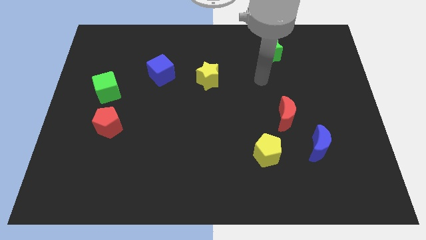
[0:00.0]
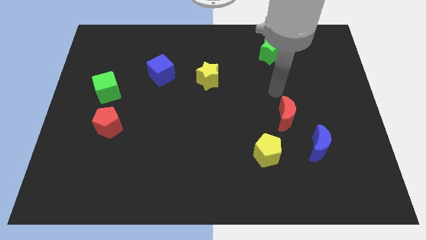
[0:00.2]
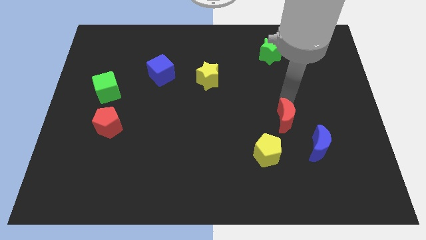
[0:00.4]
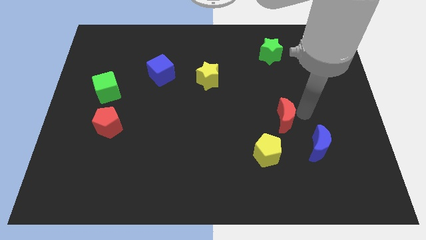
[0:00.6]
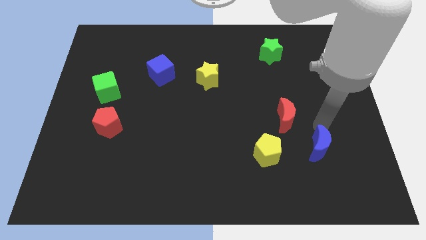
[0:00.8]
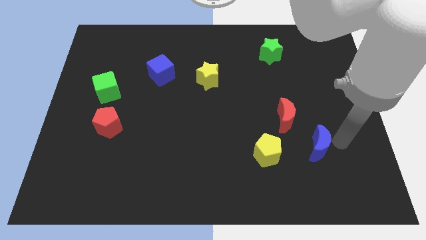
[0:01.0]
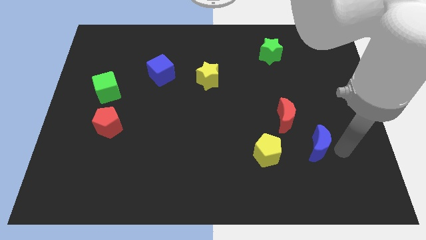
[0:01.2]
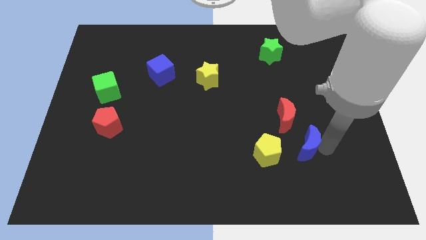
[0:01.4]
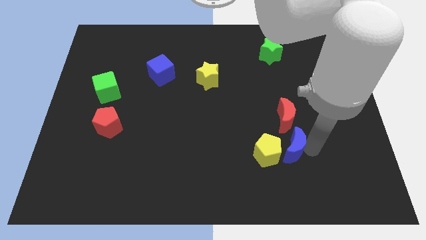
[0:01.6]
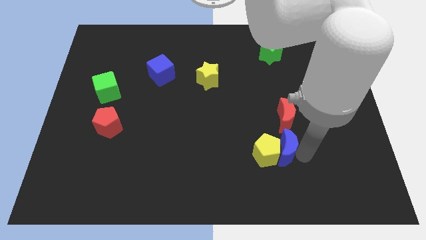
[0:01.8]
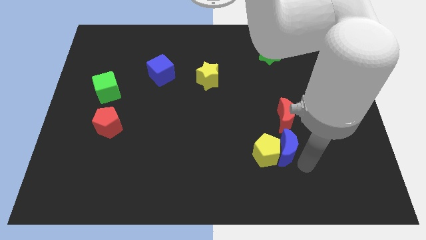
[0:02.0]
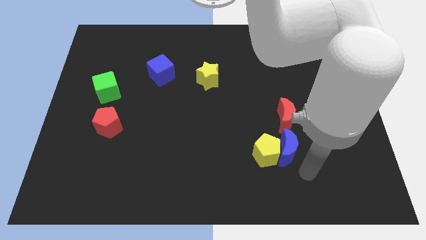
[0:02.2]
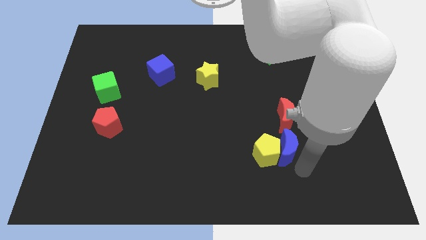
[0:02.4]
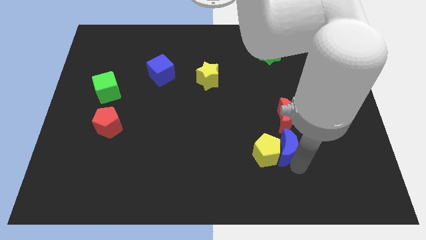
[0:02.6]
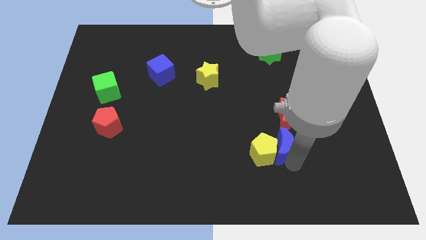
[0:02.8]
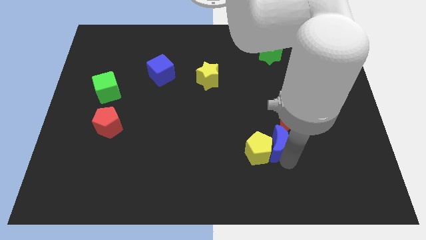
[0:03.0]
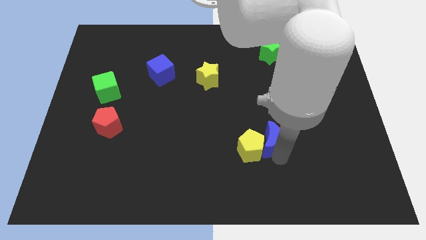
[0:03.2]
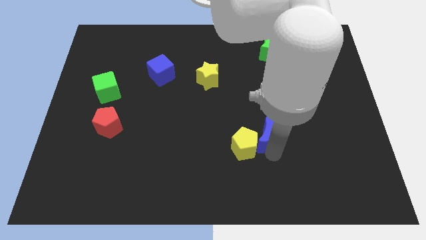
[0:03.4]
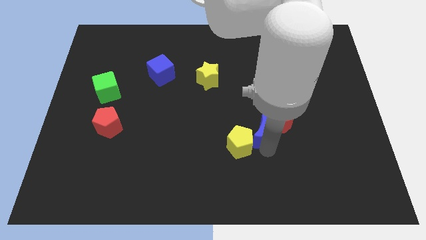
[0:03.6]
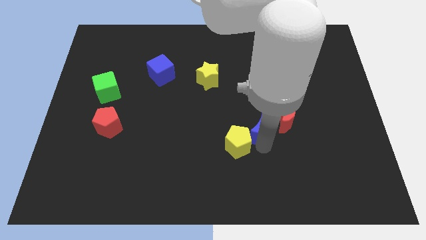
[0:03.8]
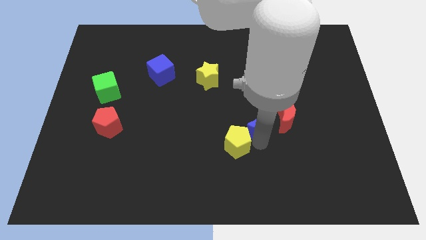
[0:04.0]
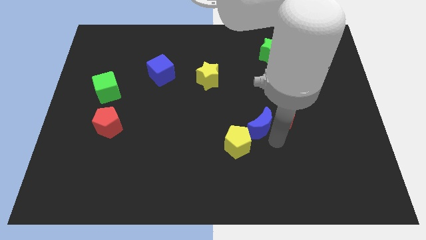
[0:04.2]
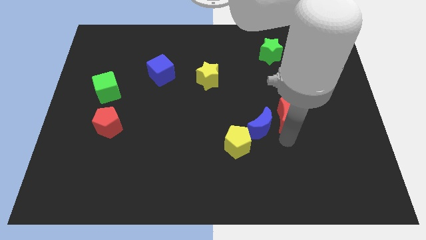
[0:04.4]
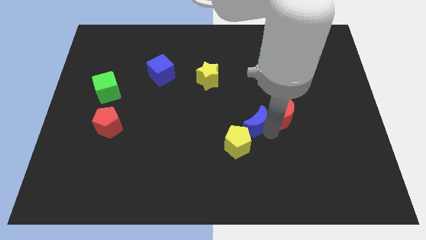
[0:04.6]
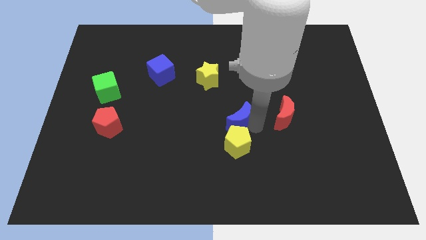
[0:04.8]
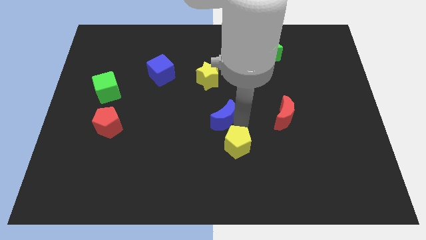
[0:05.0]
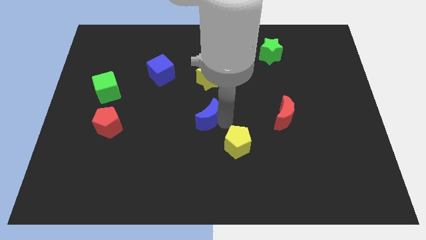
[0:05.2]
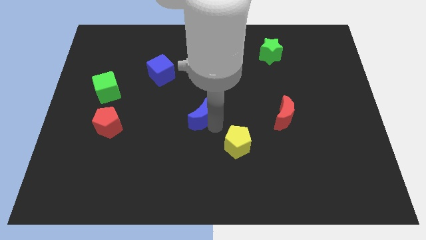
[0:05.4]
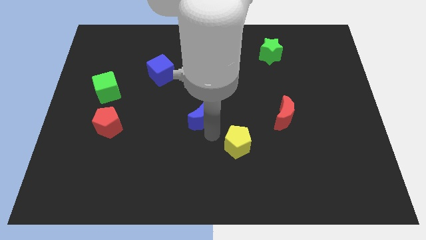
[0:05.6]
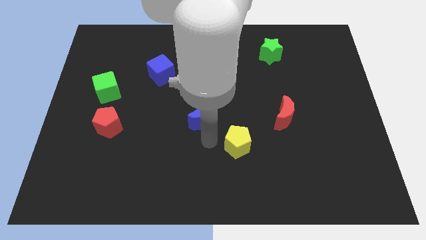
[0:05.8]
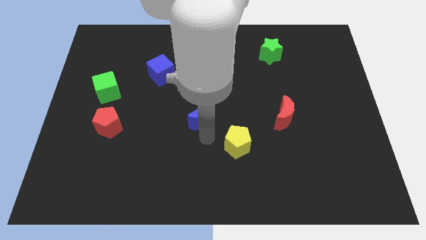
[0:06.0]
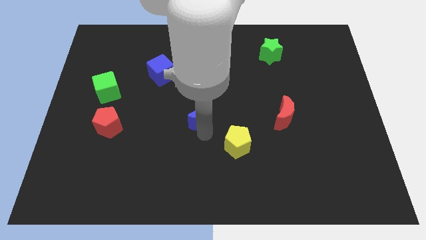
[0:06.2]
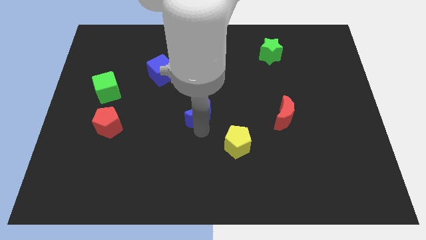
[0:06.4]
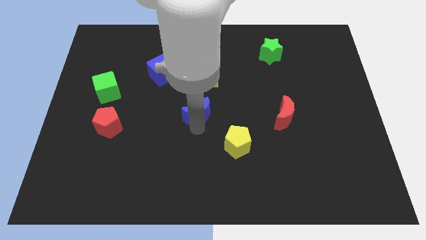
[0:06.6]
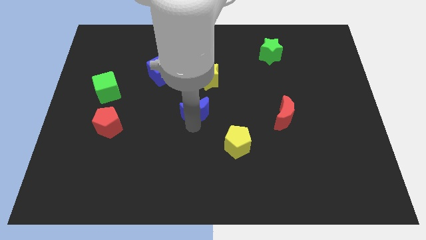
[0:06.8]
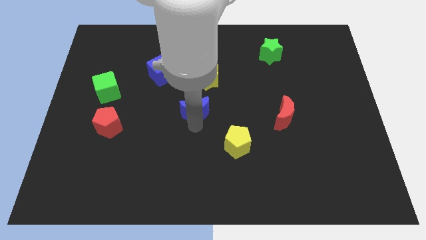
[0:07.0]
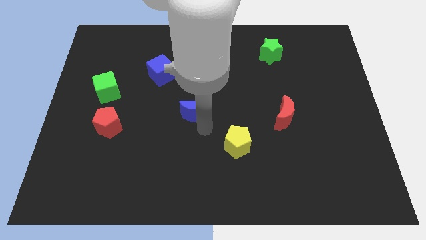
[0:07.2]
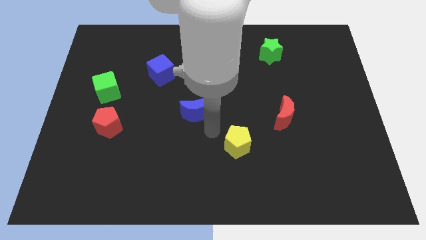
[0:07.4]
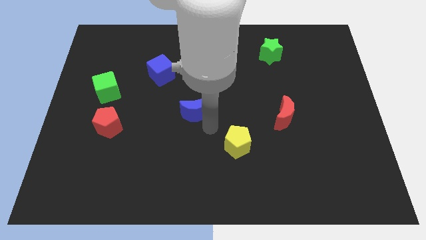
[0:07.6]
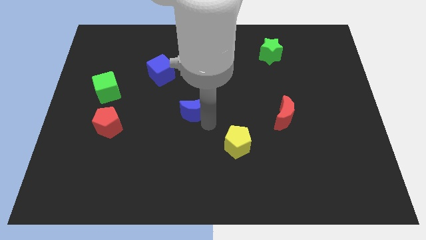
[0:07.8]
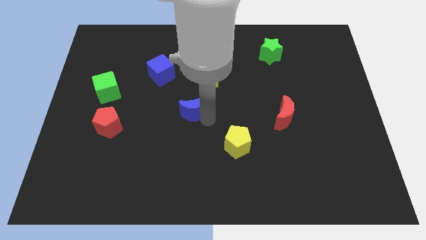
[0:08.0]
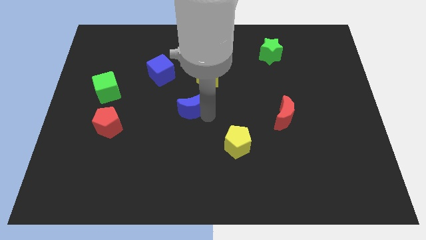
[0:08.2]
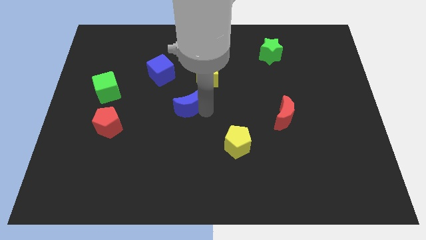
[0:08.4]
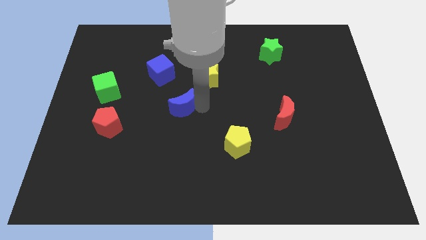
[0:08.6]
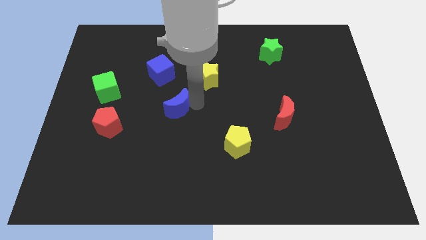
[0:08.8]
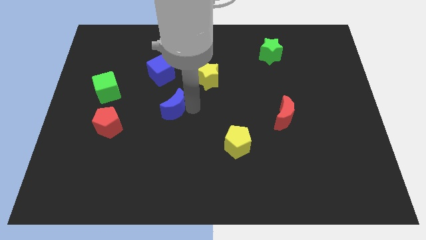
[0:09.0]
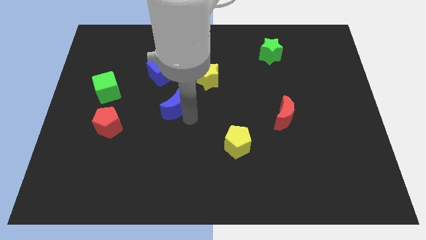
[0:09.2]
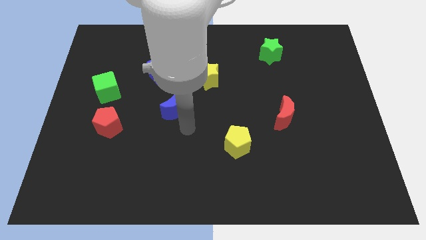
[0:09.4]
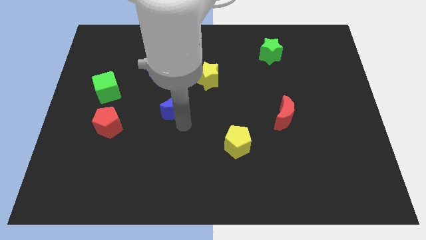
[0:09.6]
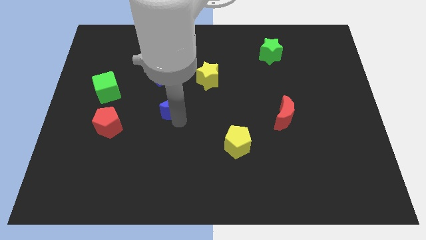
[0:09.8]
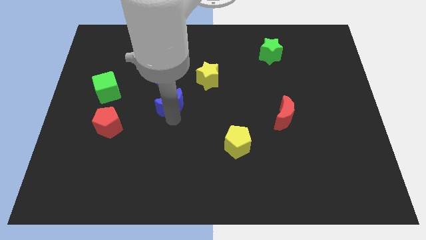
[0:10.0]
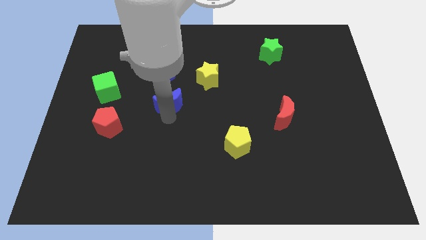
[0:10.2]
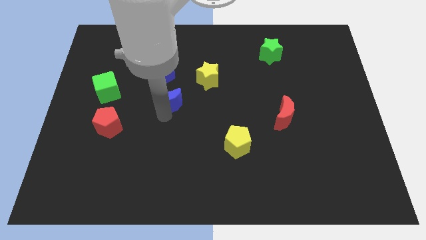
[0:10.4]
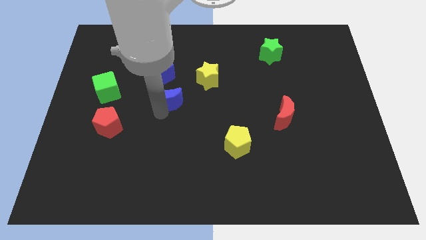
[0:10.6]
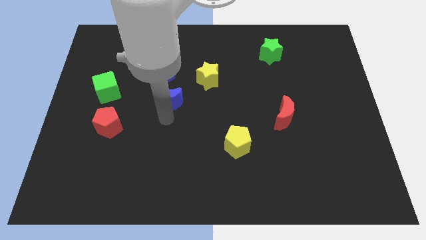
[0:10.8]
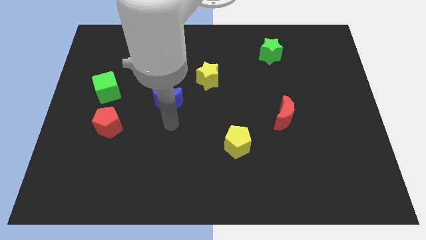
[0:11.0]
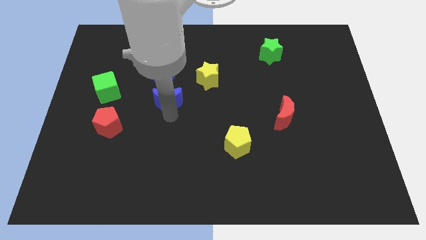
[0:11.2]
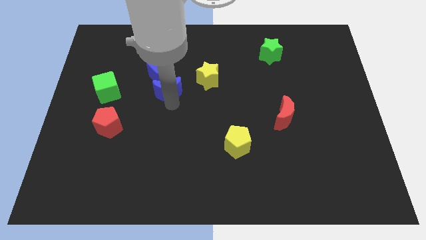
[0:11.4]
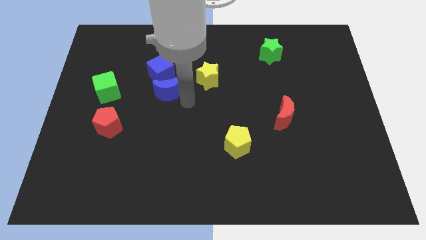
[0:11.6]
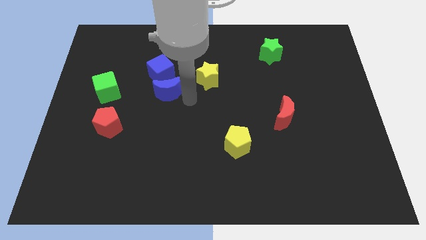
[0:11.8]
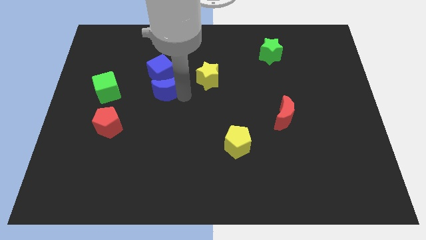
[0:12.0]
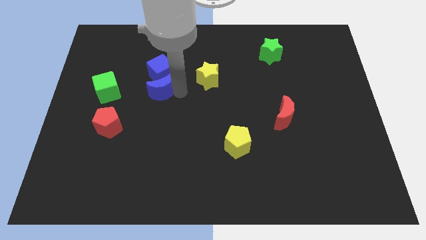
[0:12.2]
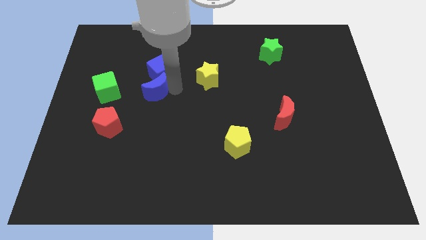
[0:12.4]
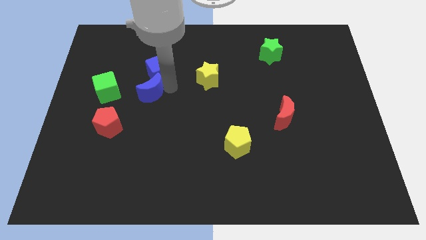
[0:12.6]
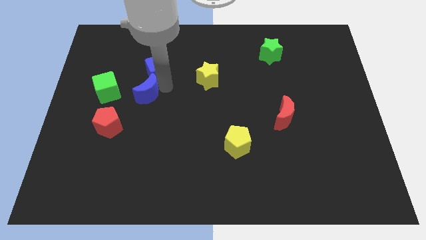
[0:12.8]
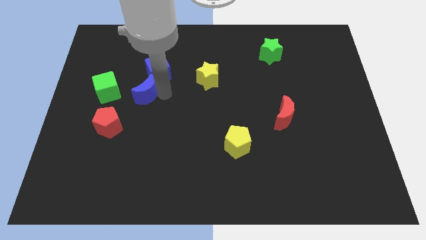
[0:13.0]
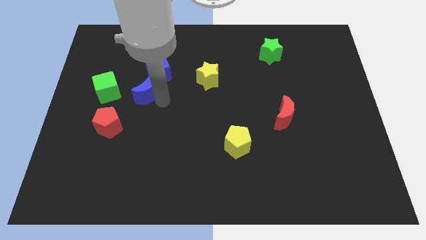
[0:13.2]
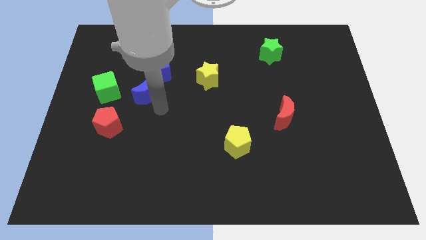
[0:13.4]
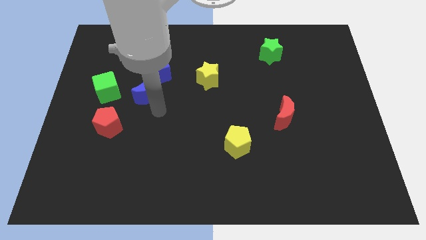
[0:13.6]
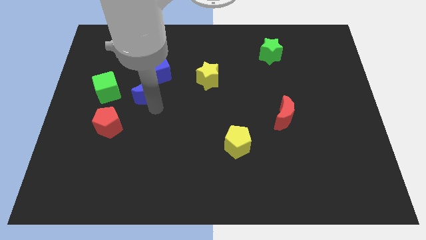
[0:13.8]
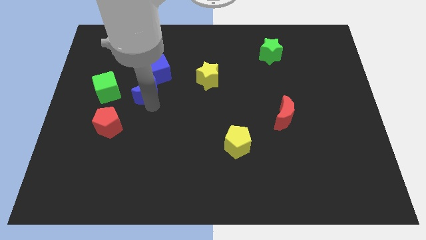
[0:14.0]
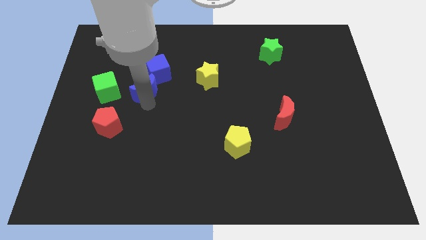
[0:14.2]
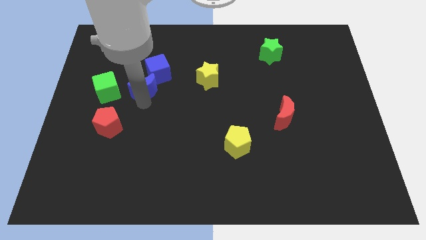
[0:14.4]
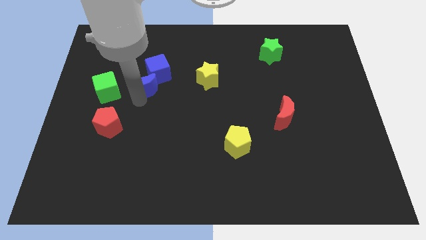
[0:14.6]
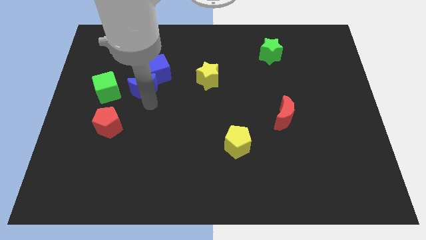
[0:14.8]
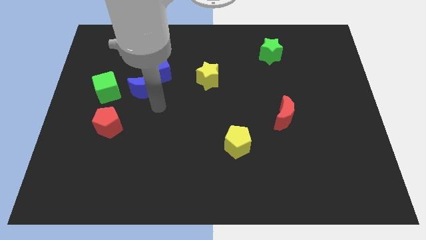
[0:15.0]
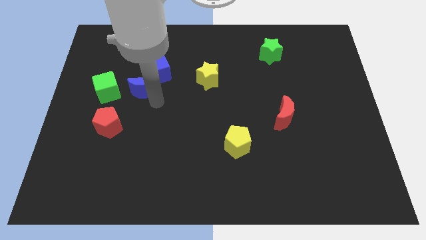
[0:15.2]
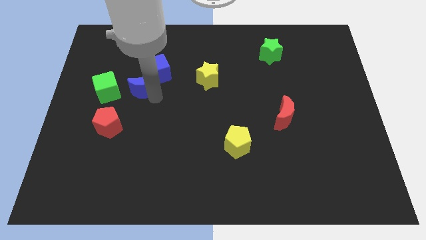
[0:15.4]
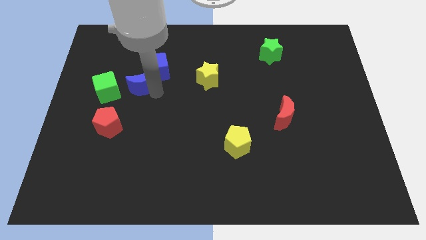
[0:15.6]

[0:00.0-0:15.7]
slide the blue moon to the top right of the green cube
